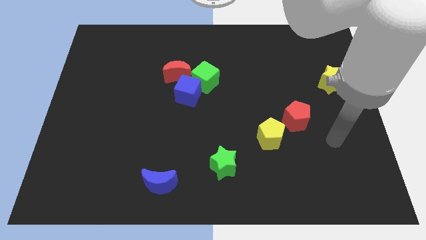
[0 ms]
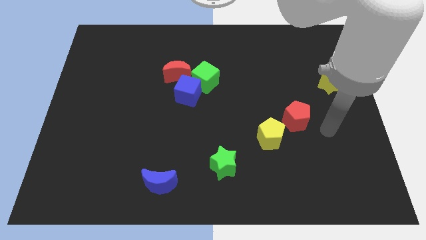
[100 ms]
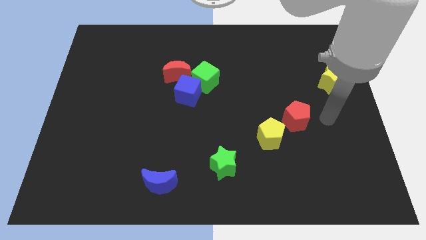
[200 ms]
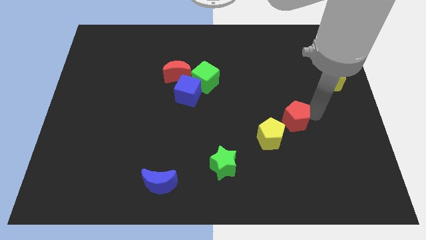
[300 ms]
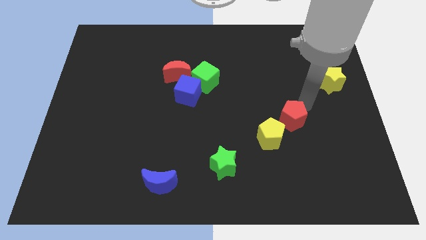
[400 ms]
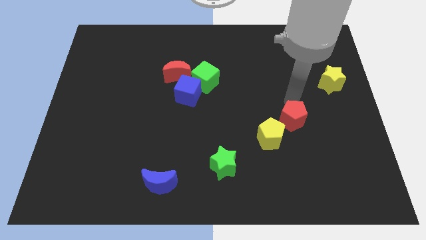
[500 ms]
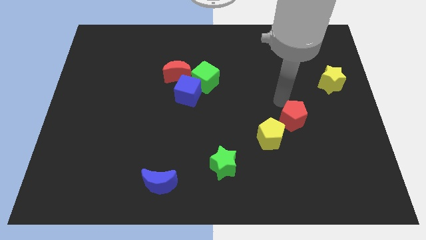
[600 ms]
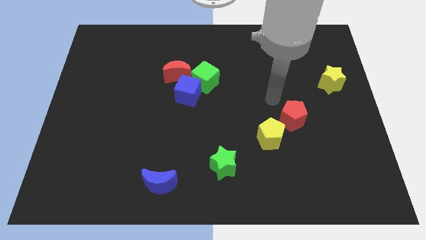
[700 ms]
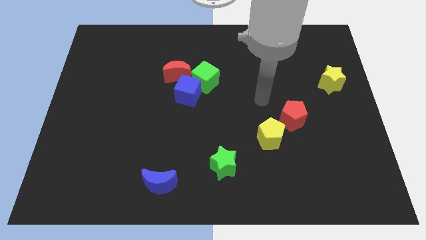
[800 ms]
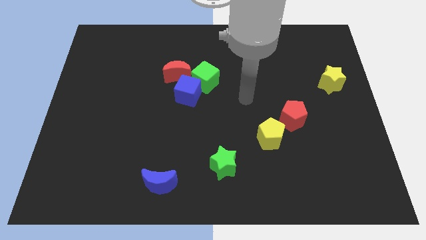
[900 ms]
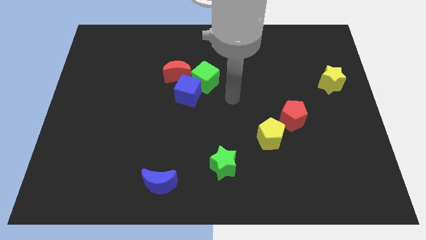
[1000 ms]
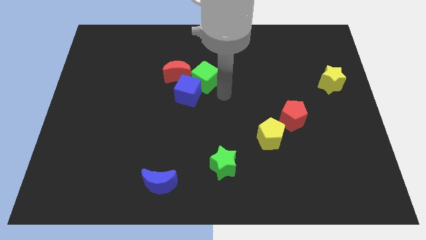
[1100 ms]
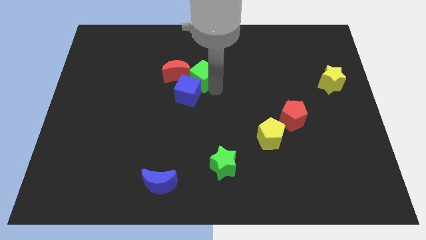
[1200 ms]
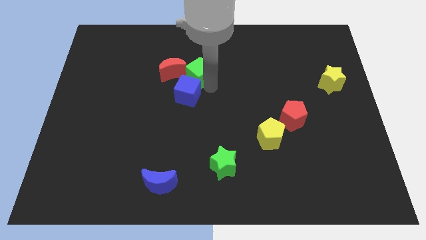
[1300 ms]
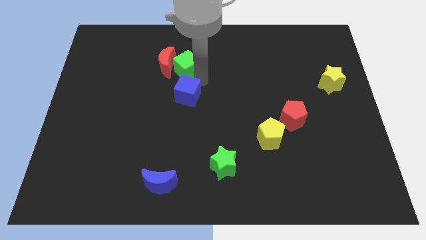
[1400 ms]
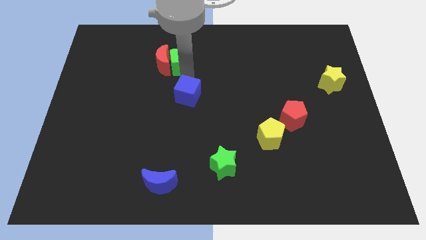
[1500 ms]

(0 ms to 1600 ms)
separate the blue cube from the green cube and red moon

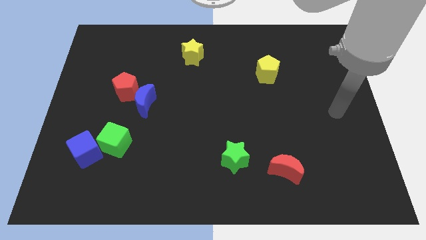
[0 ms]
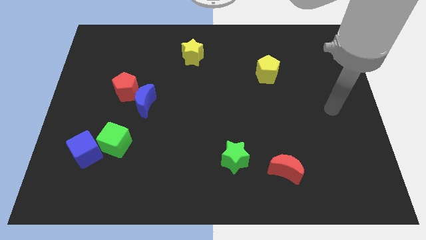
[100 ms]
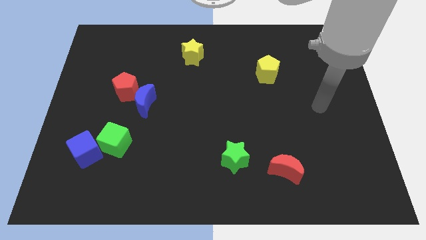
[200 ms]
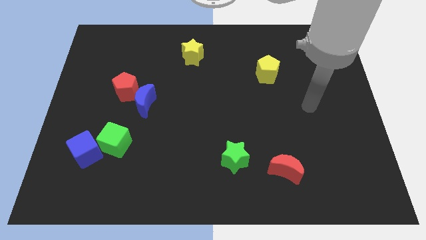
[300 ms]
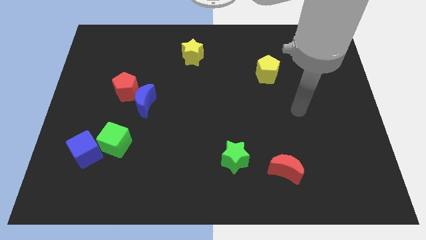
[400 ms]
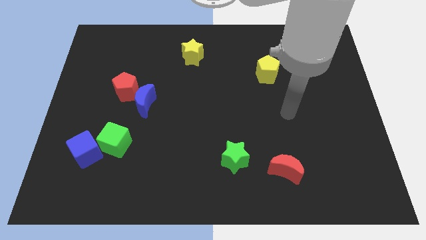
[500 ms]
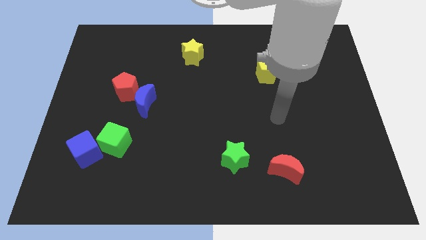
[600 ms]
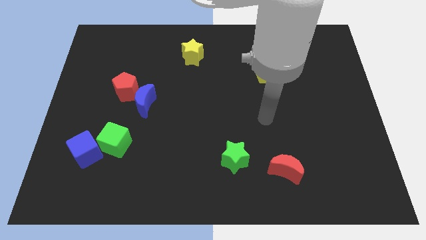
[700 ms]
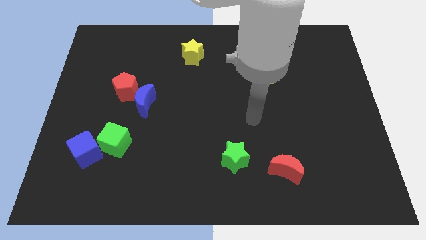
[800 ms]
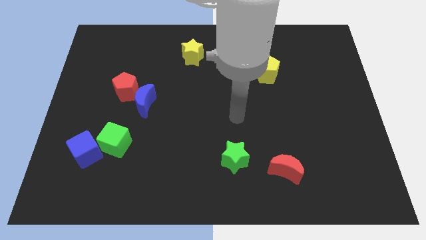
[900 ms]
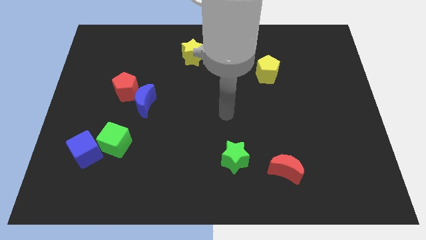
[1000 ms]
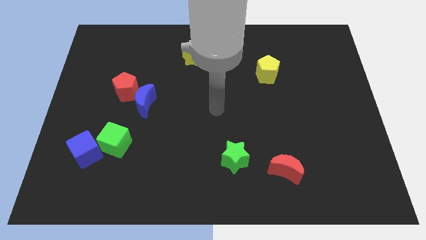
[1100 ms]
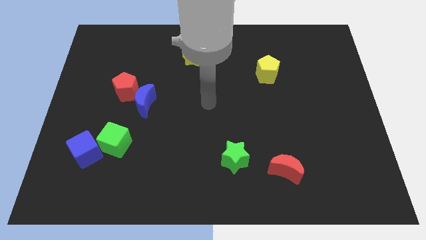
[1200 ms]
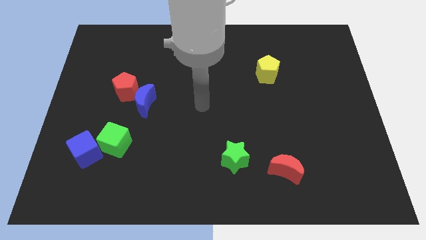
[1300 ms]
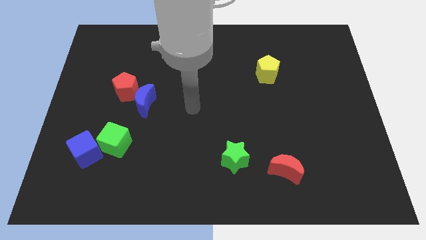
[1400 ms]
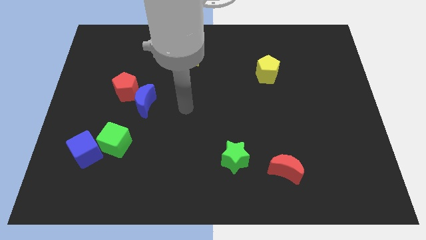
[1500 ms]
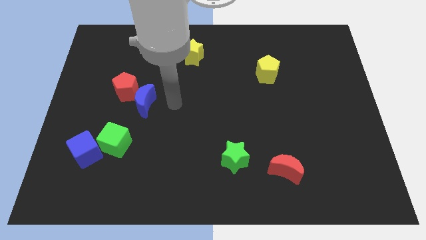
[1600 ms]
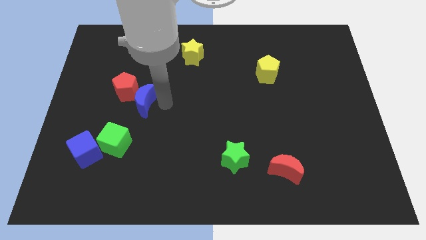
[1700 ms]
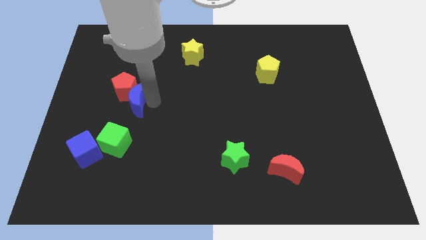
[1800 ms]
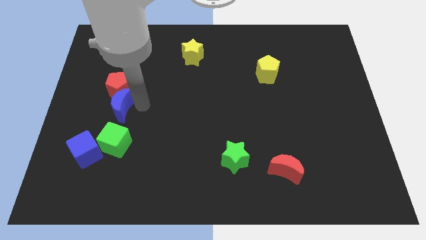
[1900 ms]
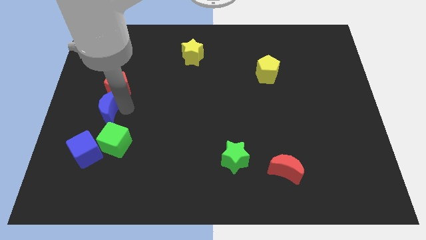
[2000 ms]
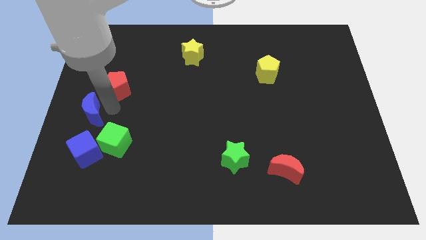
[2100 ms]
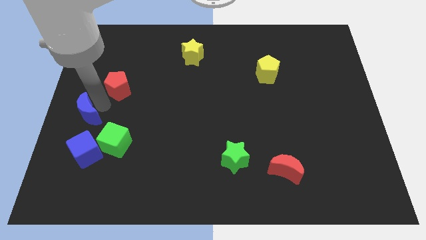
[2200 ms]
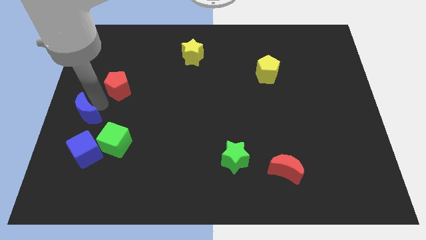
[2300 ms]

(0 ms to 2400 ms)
move the red pentagon away from the blue moon

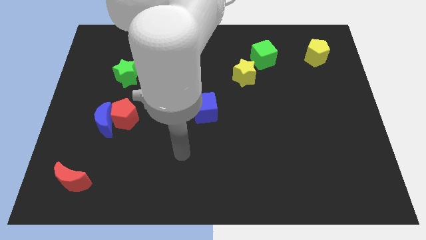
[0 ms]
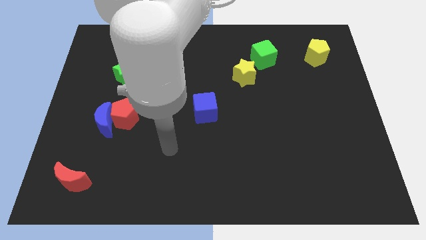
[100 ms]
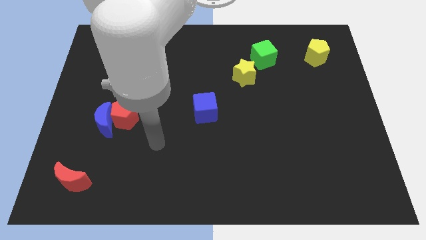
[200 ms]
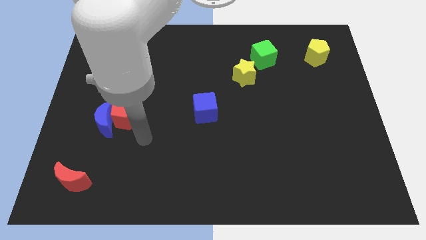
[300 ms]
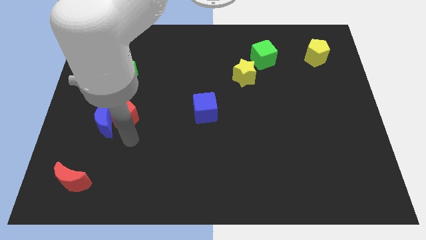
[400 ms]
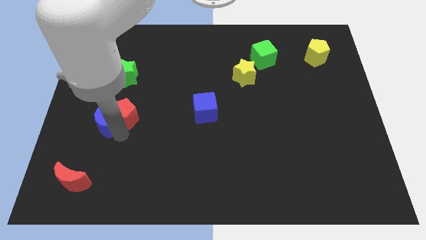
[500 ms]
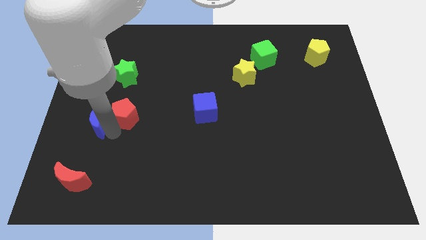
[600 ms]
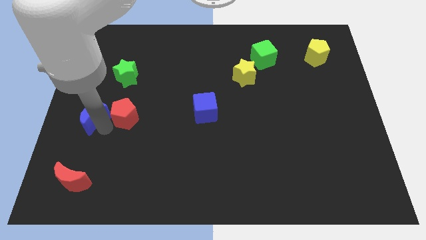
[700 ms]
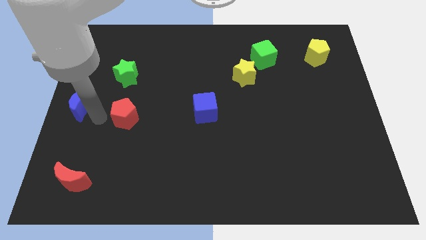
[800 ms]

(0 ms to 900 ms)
pull the red pentagon apart from the blue moon

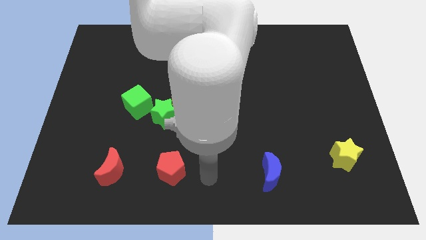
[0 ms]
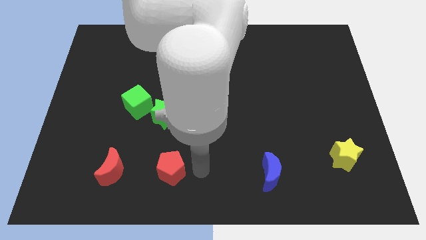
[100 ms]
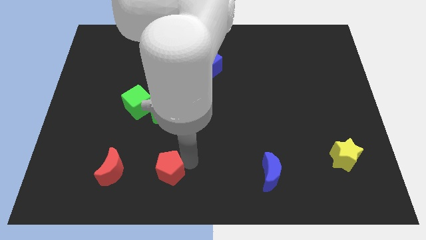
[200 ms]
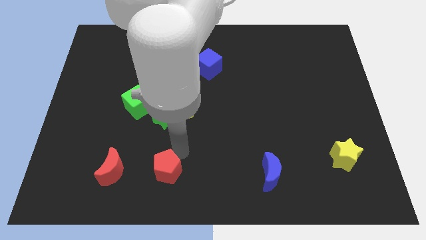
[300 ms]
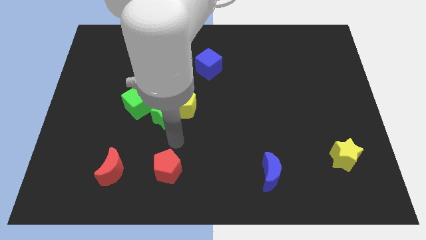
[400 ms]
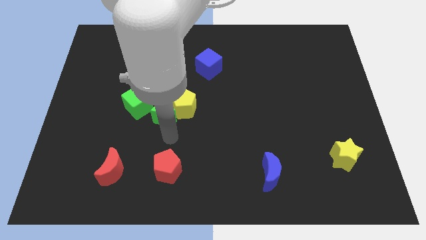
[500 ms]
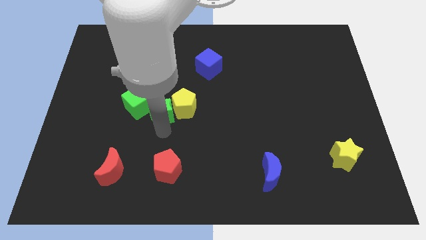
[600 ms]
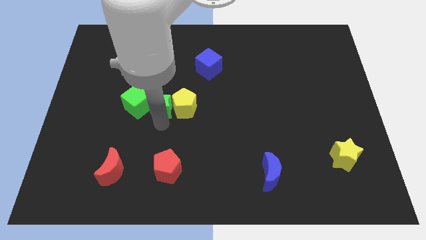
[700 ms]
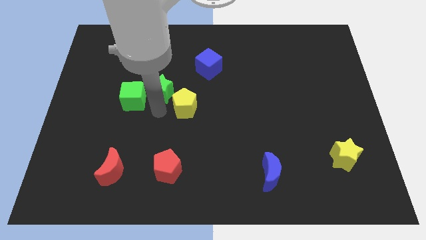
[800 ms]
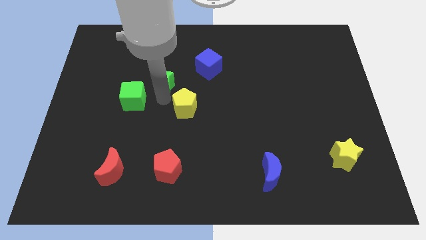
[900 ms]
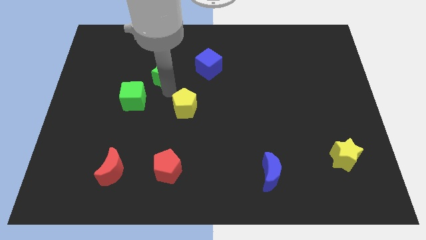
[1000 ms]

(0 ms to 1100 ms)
separate the yellow pentagon from the green star

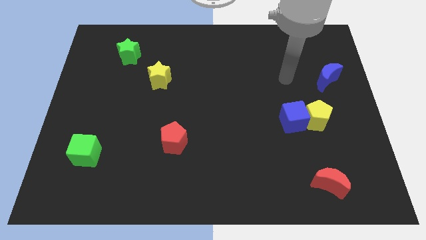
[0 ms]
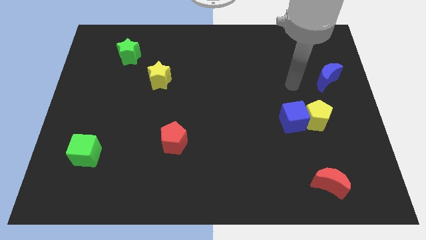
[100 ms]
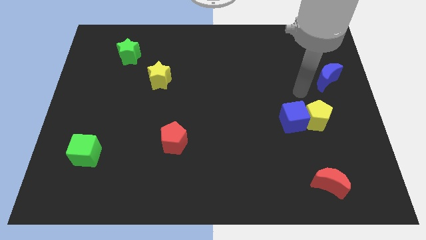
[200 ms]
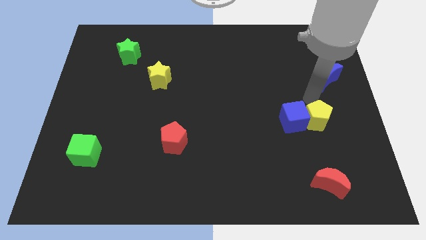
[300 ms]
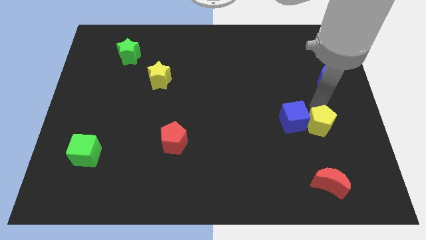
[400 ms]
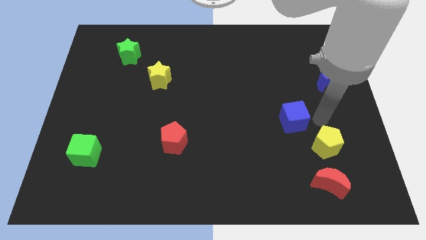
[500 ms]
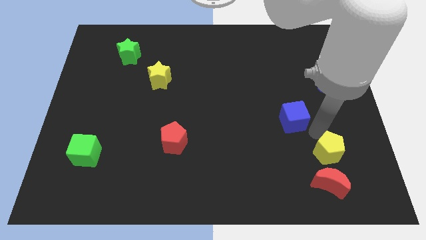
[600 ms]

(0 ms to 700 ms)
move the blue cube away from the yellow pentagon

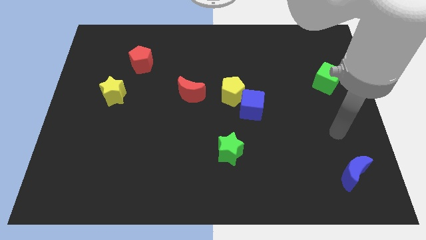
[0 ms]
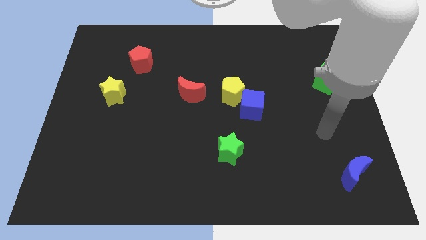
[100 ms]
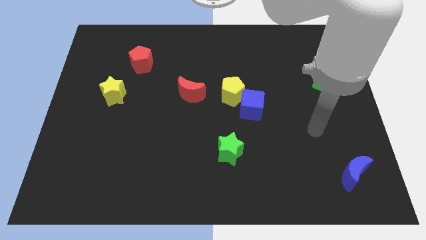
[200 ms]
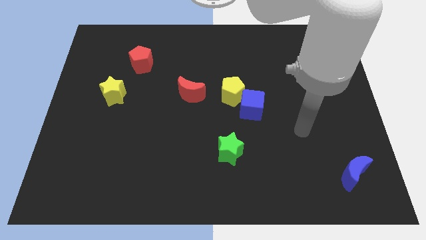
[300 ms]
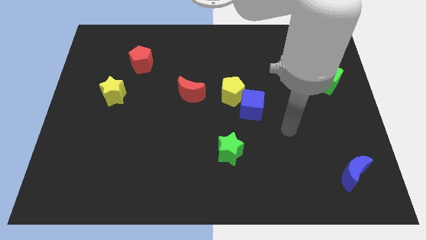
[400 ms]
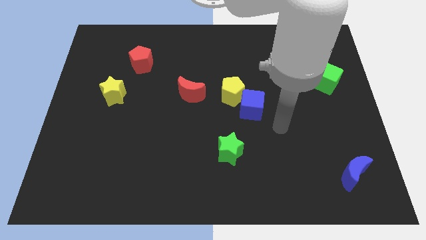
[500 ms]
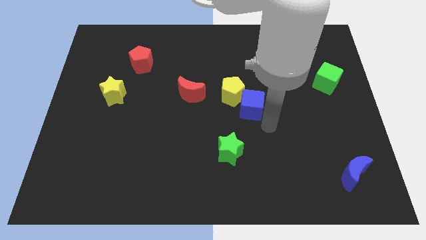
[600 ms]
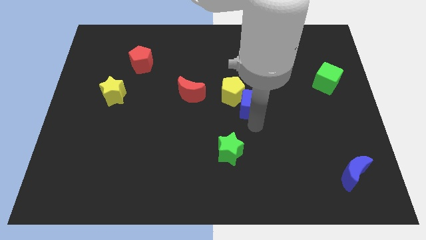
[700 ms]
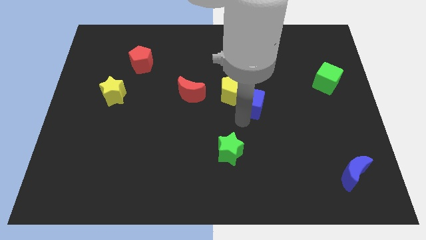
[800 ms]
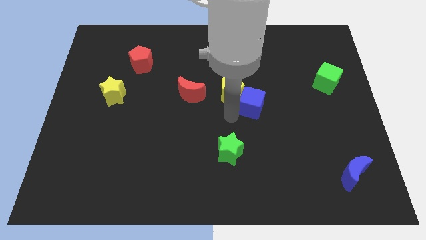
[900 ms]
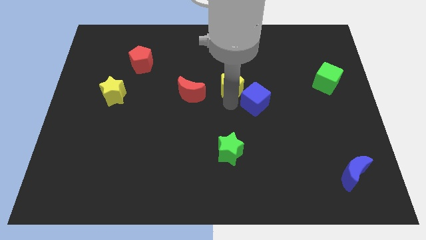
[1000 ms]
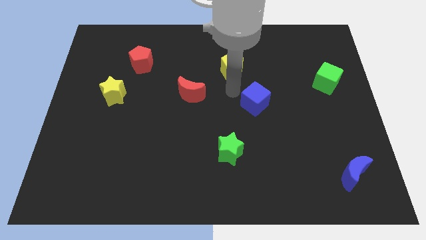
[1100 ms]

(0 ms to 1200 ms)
separate the blue cube from the yellow pentagon

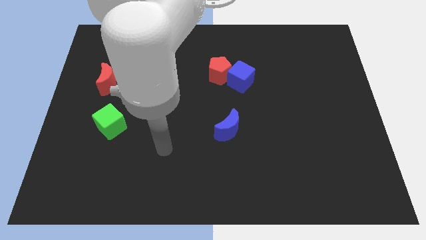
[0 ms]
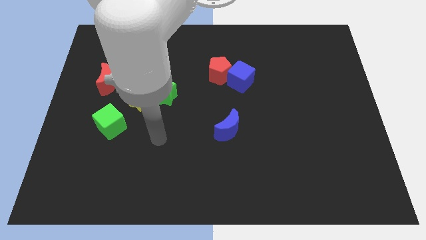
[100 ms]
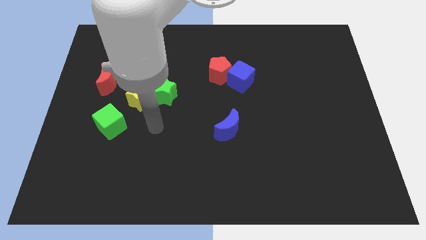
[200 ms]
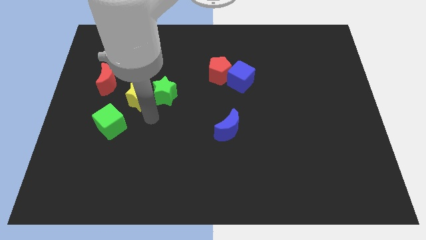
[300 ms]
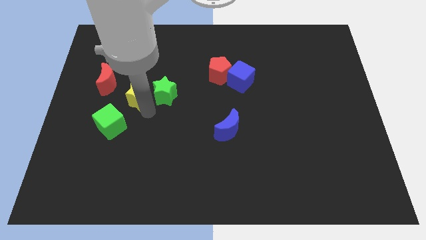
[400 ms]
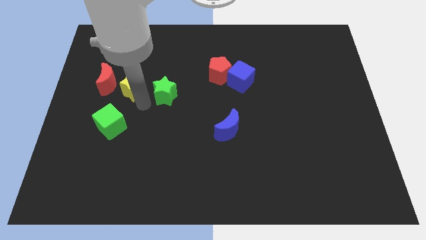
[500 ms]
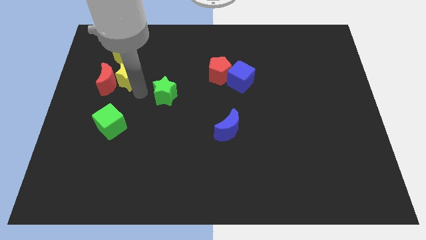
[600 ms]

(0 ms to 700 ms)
pull the green star apart from the yellow star

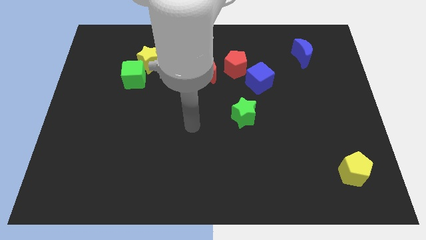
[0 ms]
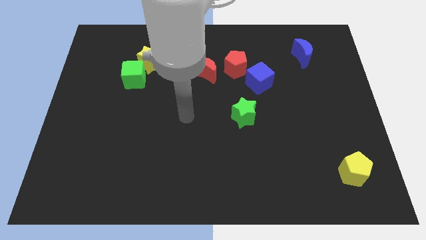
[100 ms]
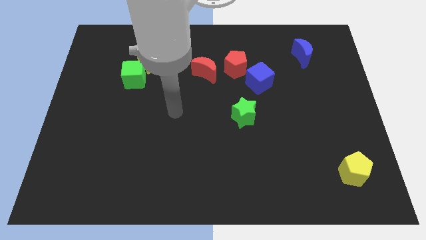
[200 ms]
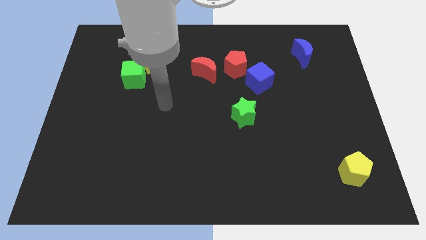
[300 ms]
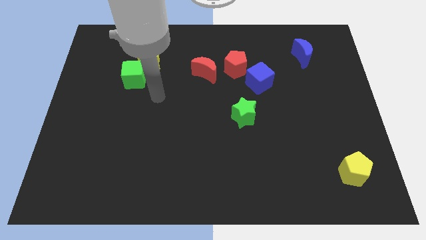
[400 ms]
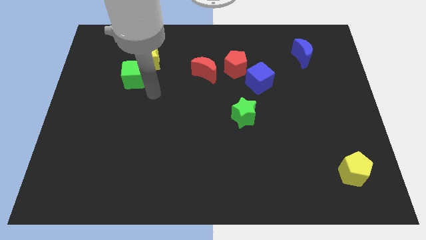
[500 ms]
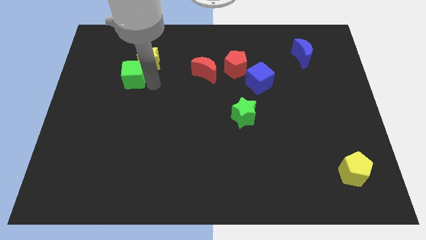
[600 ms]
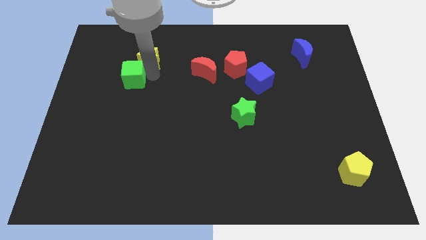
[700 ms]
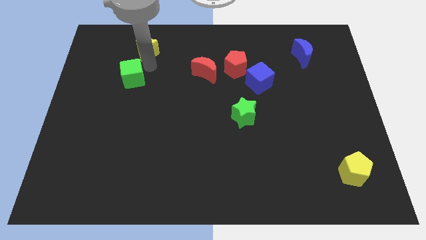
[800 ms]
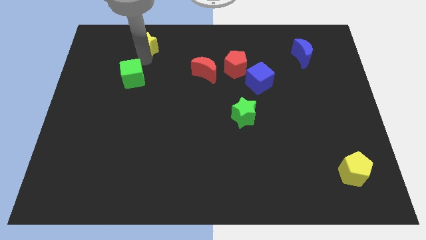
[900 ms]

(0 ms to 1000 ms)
move the green cube away from the yellow star
